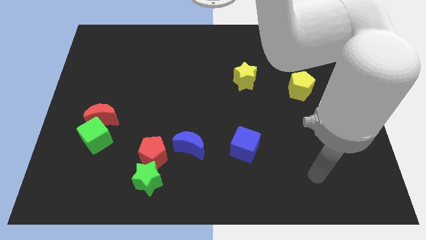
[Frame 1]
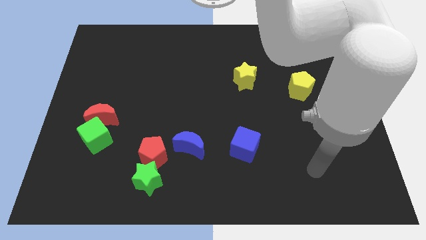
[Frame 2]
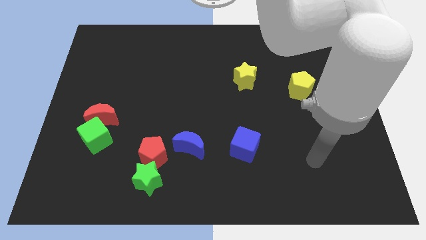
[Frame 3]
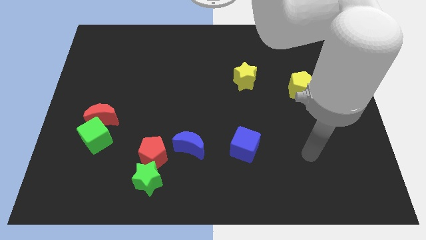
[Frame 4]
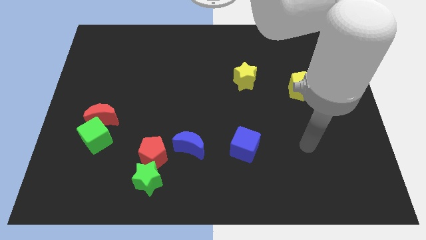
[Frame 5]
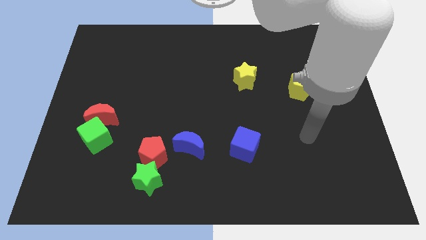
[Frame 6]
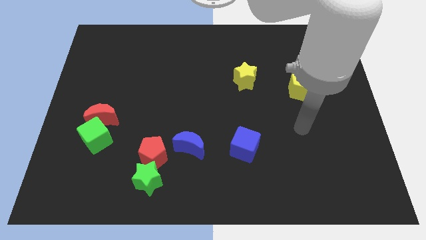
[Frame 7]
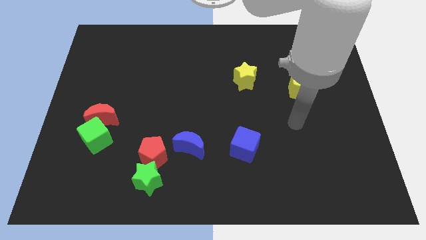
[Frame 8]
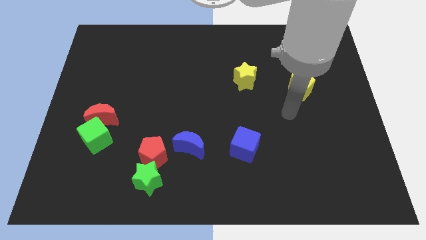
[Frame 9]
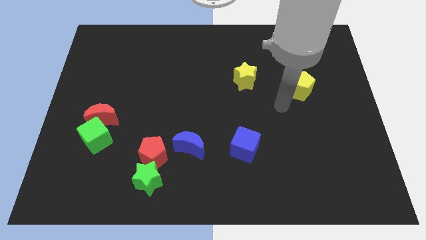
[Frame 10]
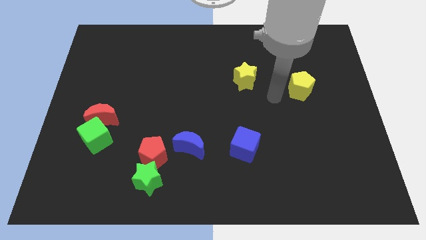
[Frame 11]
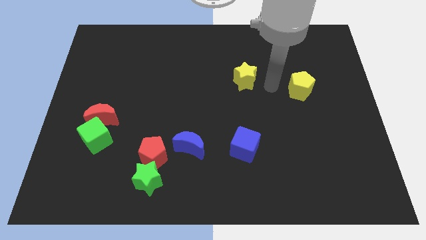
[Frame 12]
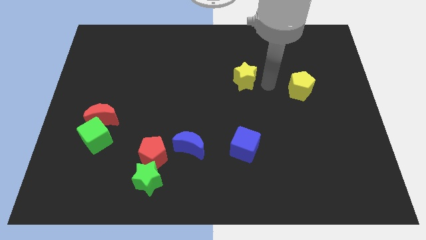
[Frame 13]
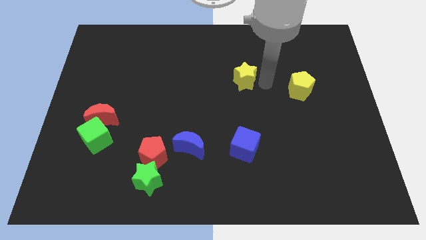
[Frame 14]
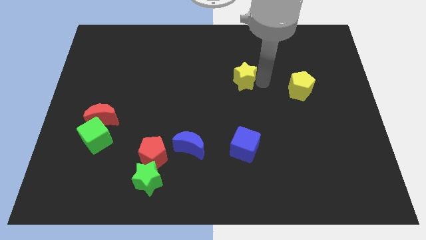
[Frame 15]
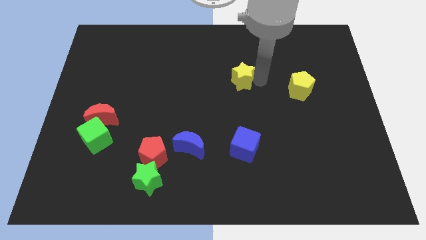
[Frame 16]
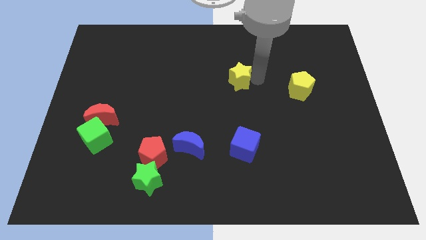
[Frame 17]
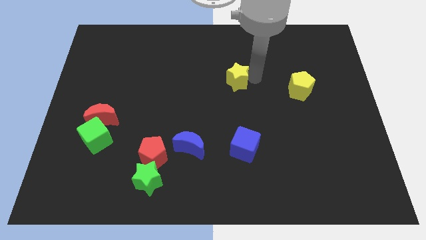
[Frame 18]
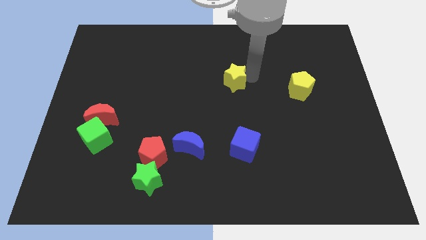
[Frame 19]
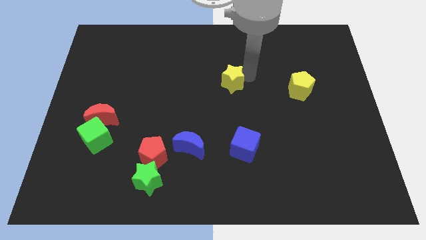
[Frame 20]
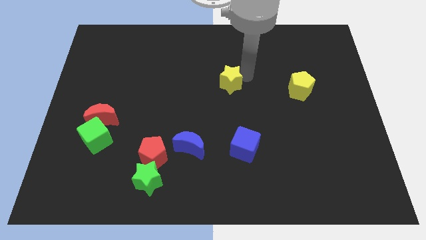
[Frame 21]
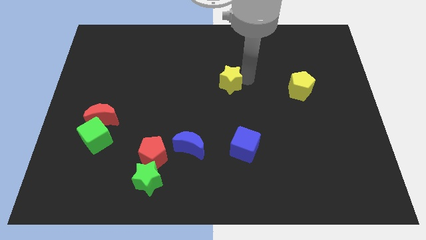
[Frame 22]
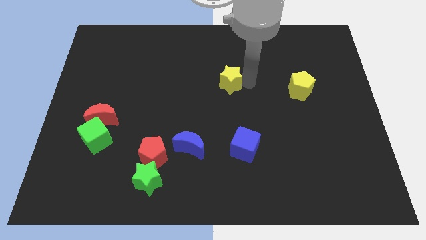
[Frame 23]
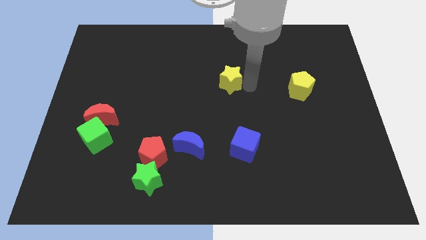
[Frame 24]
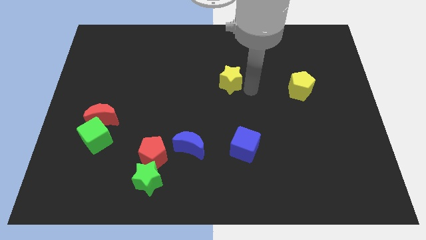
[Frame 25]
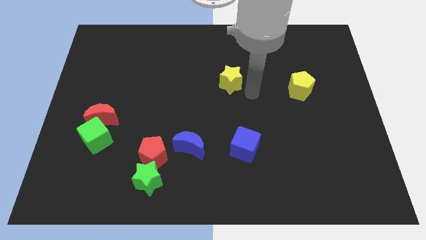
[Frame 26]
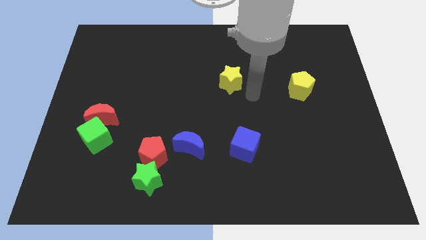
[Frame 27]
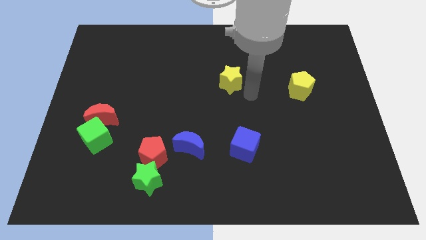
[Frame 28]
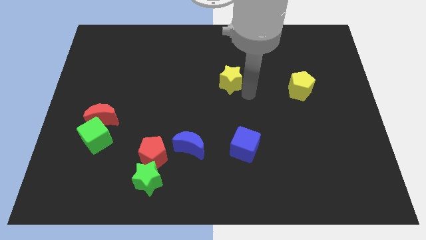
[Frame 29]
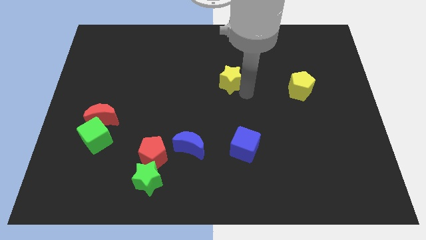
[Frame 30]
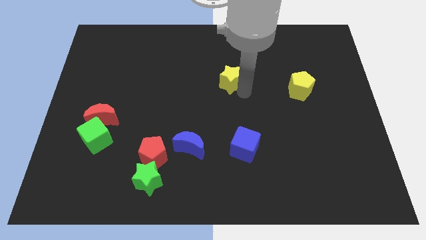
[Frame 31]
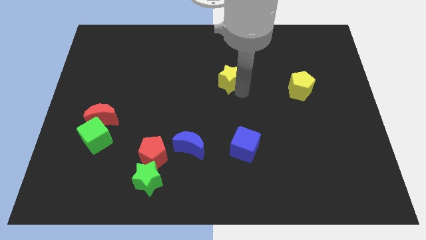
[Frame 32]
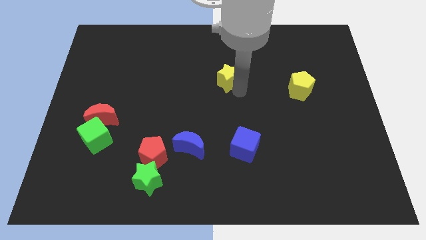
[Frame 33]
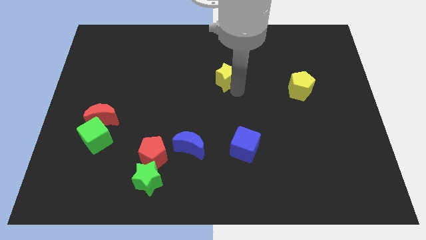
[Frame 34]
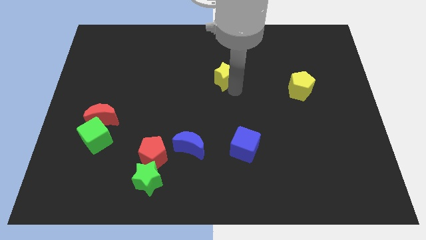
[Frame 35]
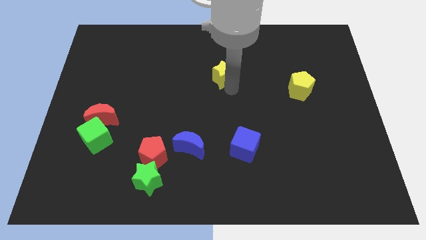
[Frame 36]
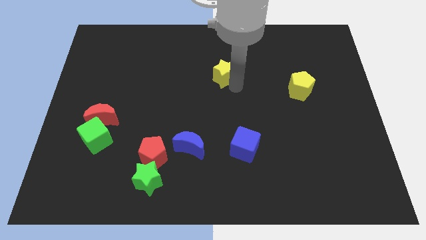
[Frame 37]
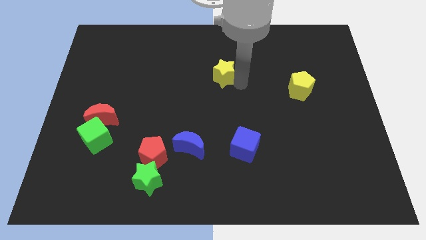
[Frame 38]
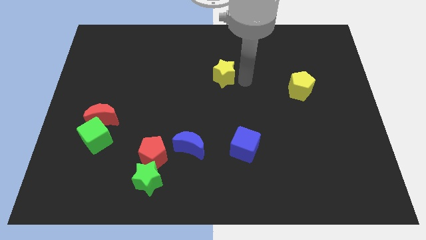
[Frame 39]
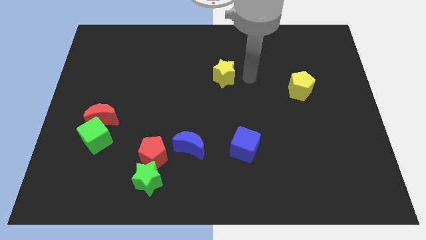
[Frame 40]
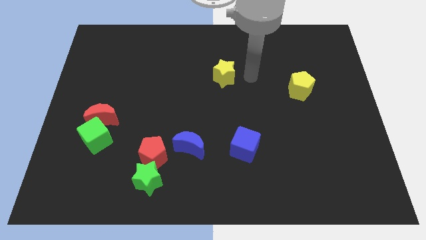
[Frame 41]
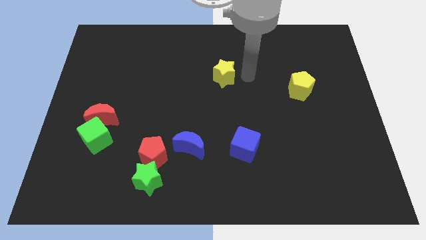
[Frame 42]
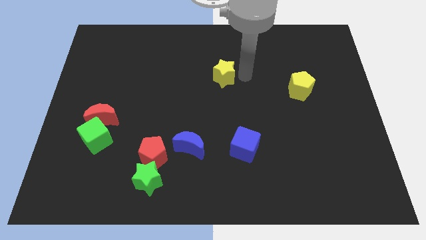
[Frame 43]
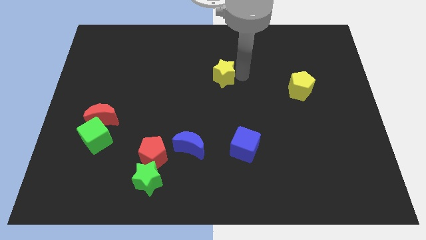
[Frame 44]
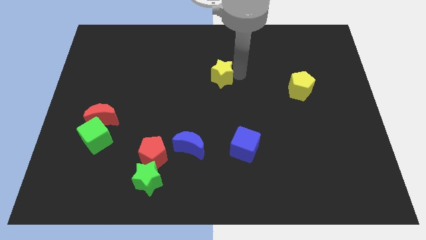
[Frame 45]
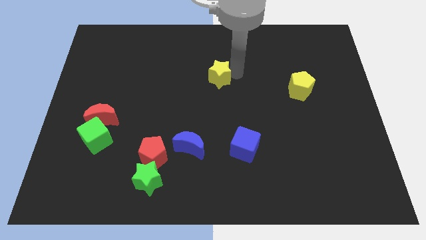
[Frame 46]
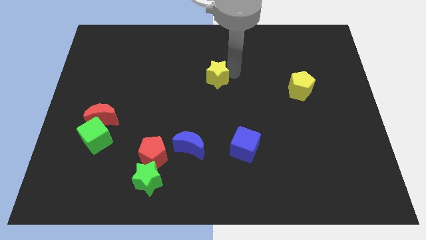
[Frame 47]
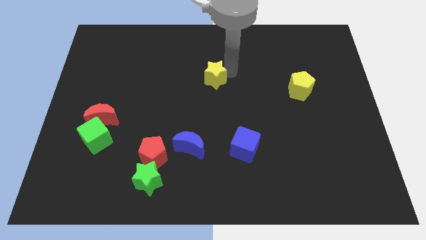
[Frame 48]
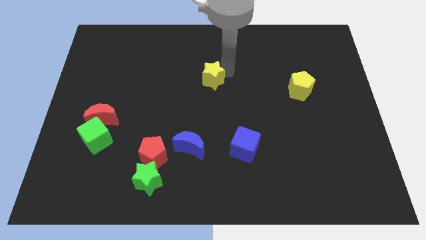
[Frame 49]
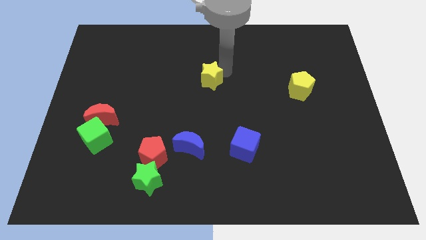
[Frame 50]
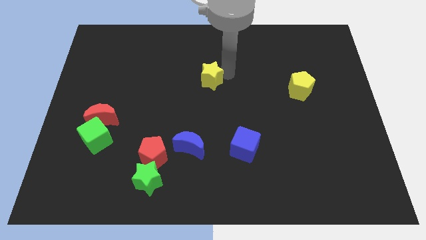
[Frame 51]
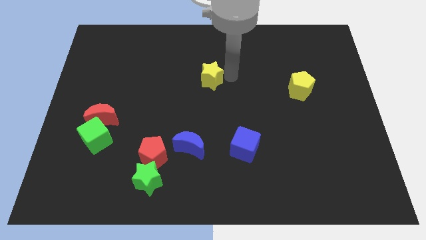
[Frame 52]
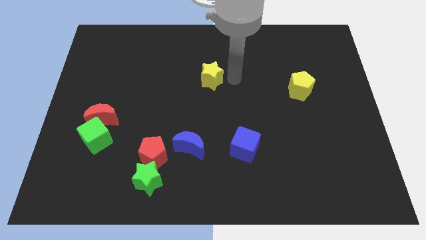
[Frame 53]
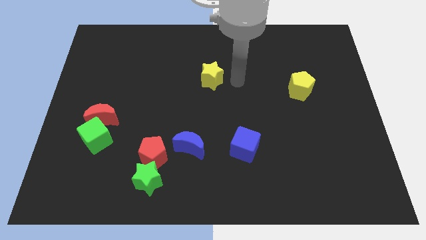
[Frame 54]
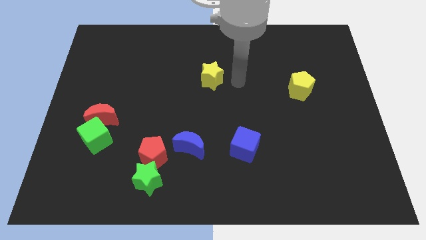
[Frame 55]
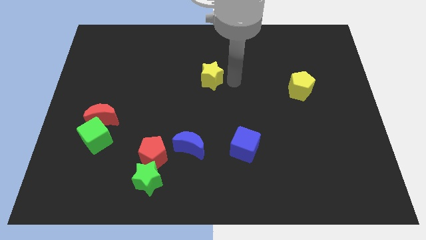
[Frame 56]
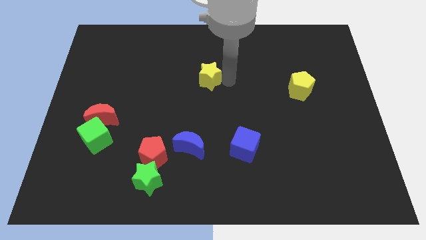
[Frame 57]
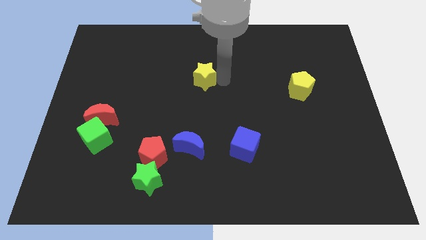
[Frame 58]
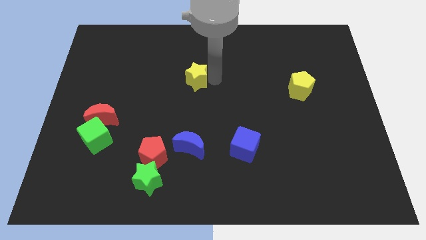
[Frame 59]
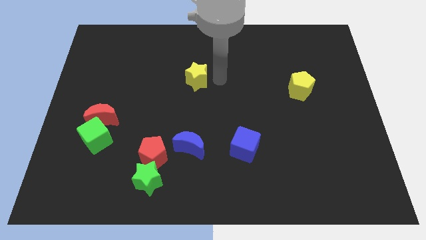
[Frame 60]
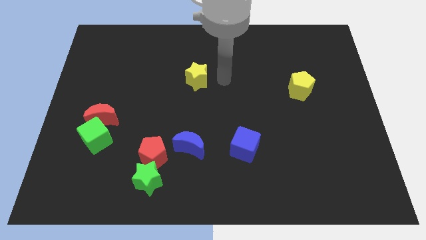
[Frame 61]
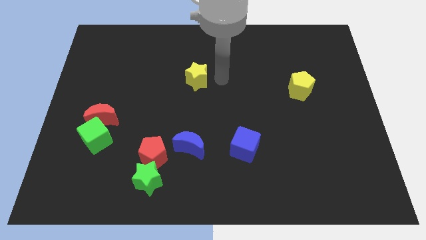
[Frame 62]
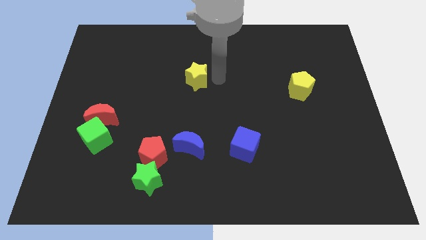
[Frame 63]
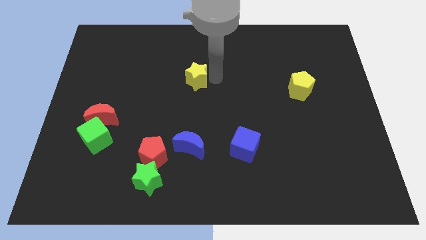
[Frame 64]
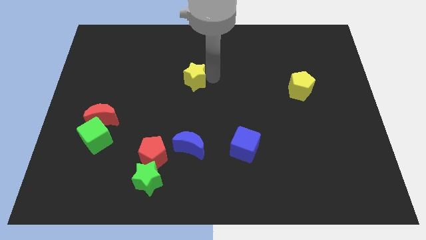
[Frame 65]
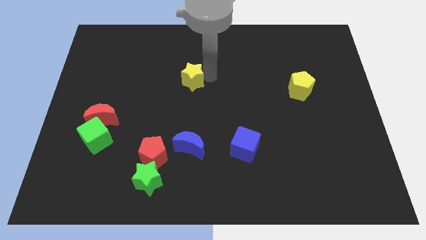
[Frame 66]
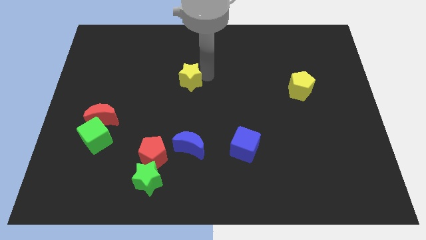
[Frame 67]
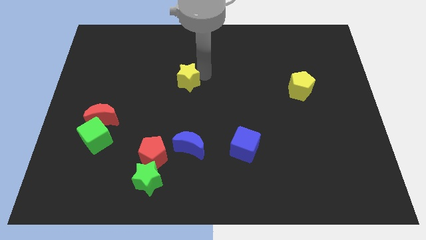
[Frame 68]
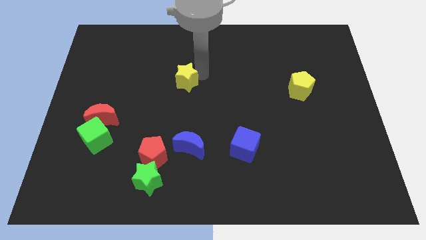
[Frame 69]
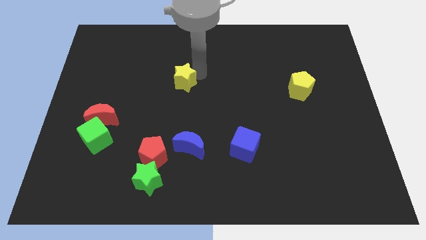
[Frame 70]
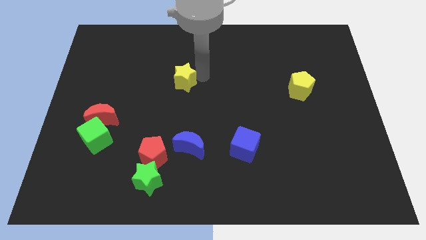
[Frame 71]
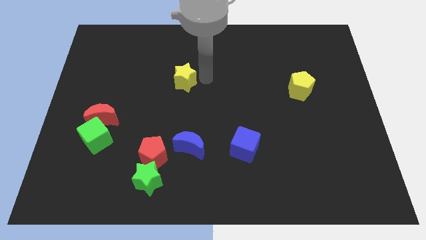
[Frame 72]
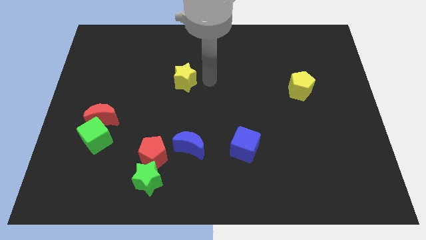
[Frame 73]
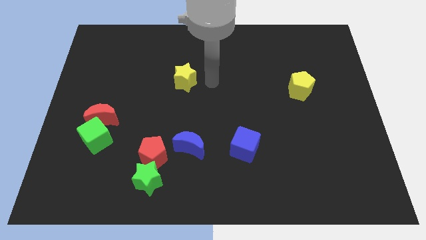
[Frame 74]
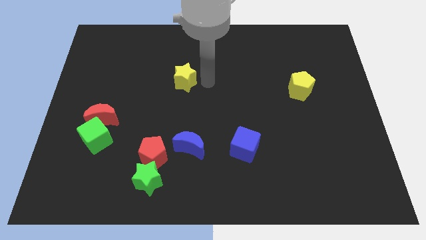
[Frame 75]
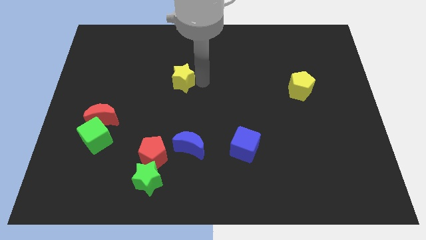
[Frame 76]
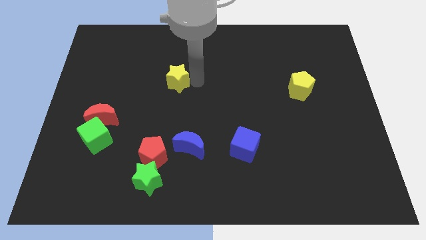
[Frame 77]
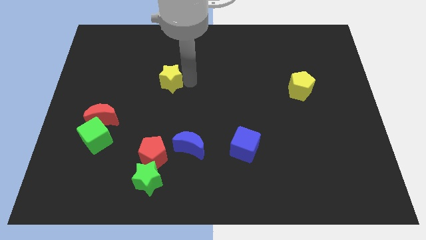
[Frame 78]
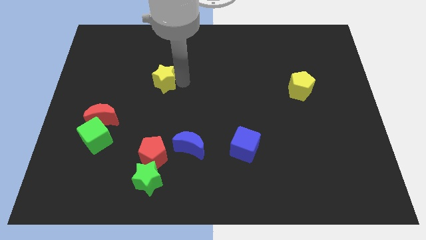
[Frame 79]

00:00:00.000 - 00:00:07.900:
move the yellow star left

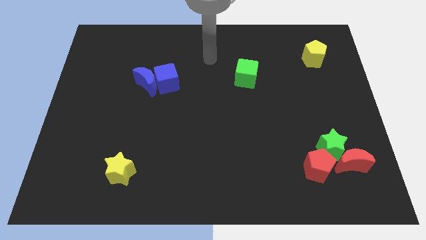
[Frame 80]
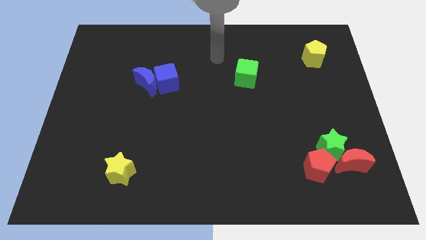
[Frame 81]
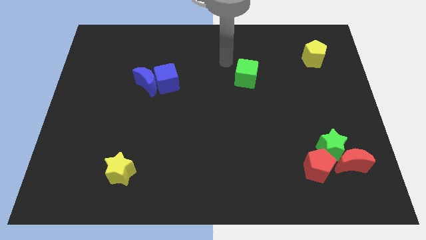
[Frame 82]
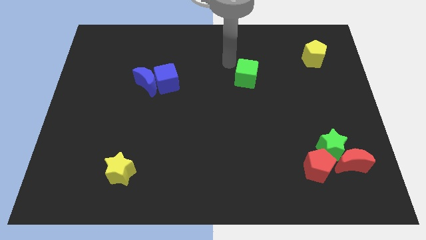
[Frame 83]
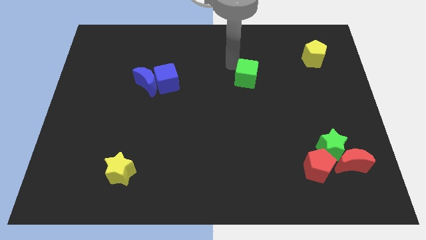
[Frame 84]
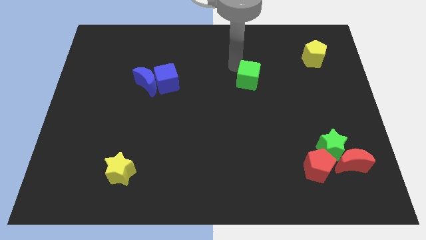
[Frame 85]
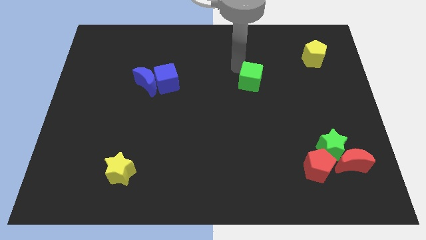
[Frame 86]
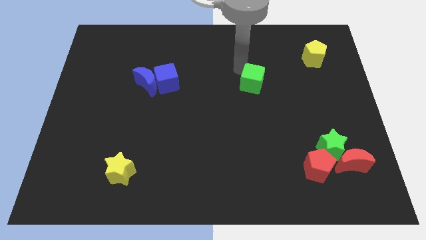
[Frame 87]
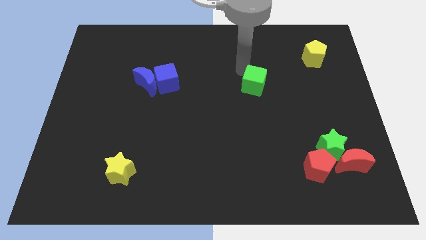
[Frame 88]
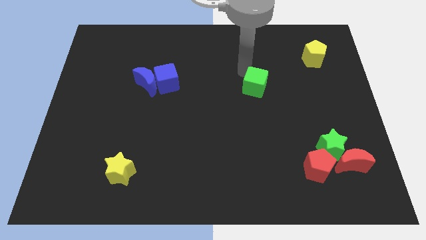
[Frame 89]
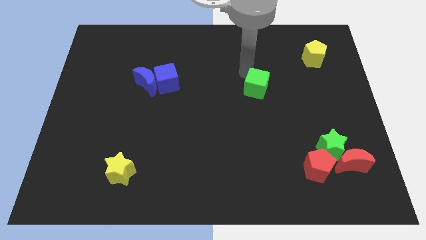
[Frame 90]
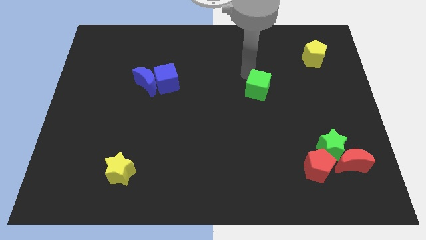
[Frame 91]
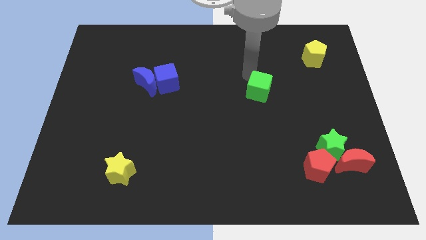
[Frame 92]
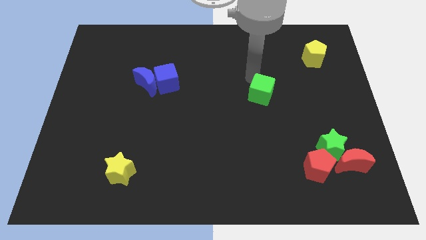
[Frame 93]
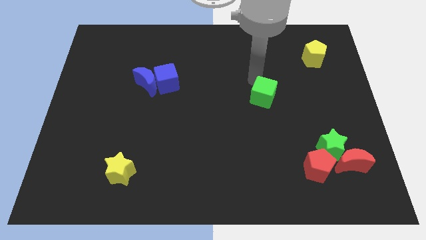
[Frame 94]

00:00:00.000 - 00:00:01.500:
slide the green cube a little bit downwards and to the right diagonally
